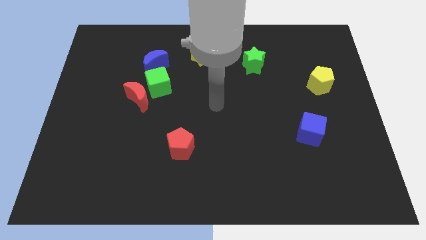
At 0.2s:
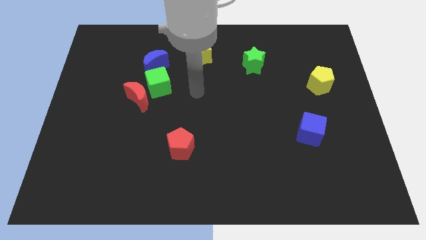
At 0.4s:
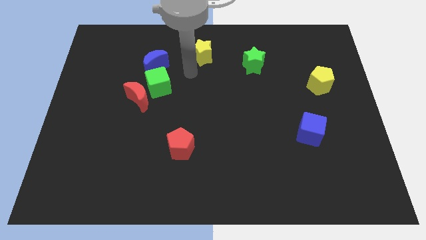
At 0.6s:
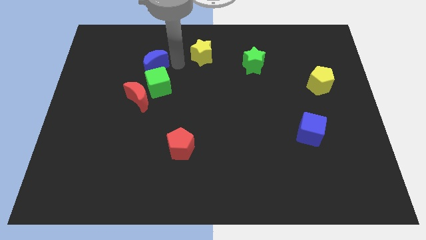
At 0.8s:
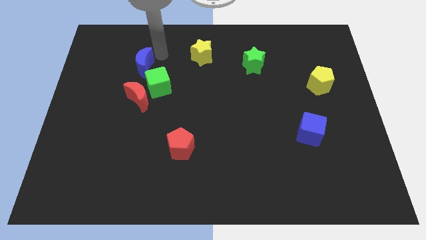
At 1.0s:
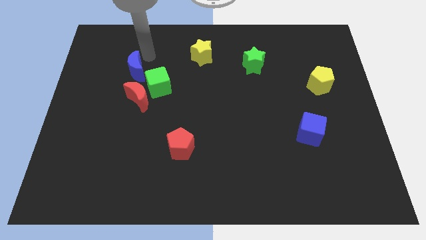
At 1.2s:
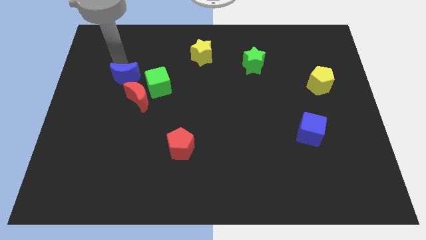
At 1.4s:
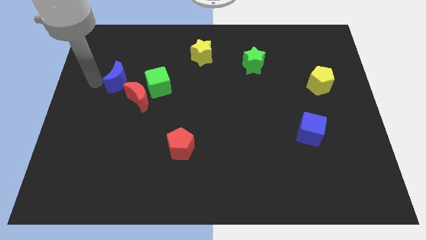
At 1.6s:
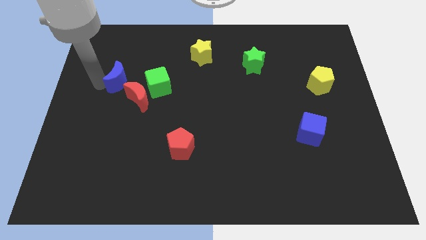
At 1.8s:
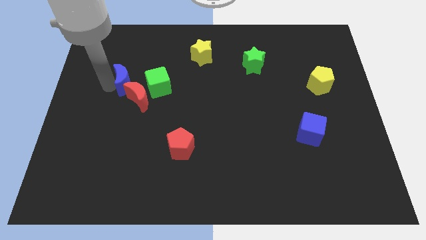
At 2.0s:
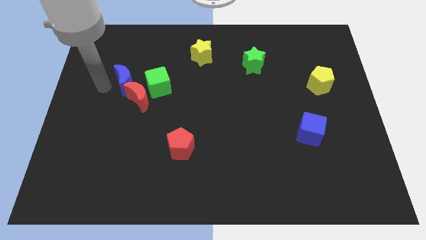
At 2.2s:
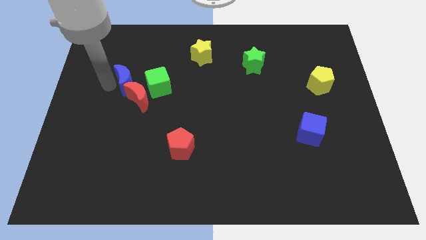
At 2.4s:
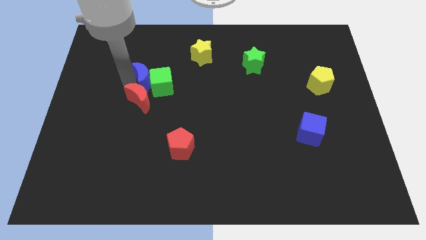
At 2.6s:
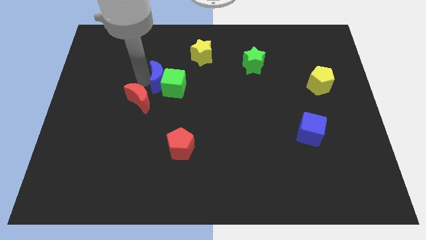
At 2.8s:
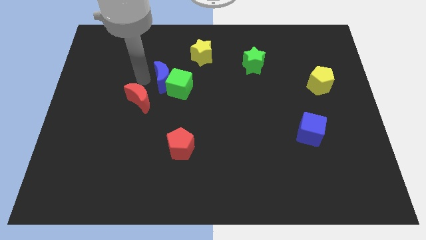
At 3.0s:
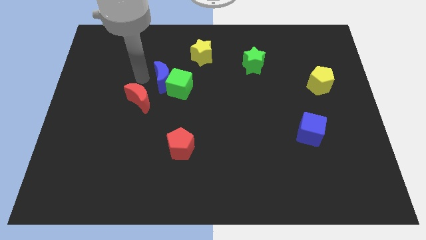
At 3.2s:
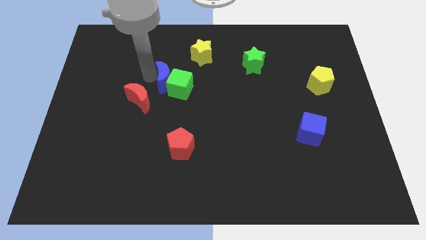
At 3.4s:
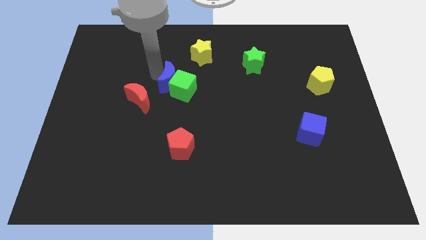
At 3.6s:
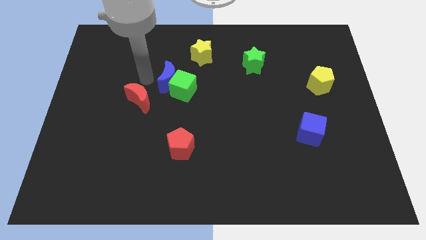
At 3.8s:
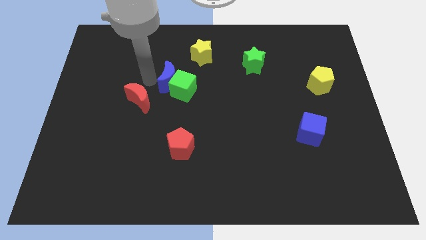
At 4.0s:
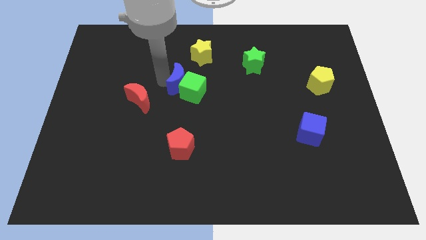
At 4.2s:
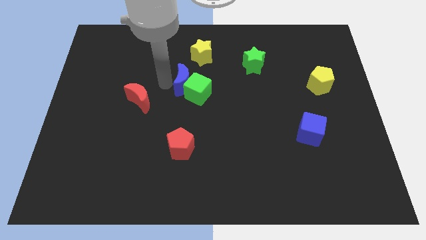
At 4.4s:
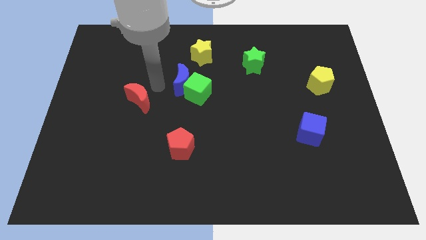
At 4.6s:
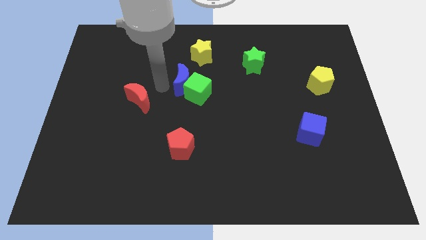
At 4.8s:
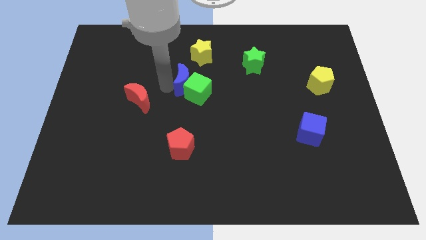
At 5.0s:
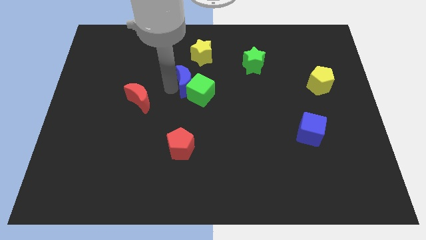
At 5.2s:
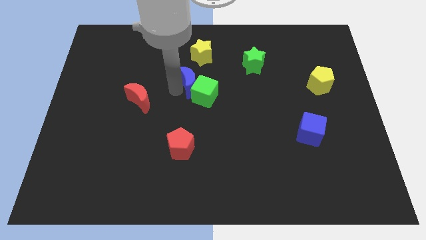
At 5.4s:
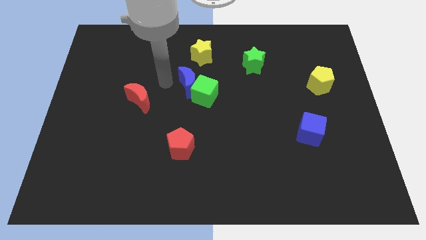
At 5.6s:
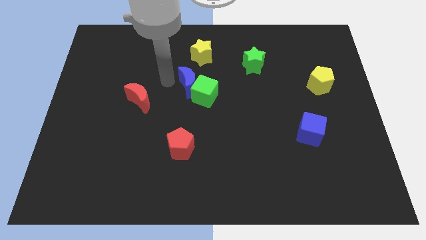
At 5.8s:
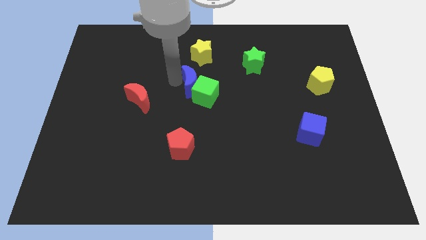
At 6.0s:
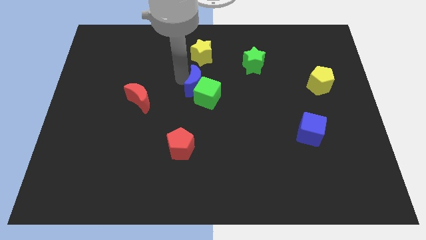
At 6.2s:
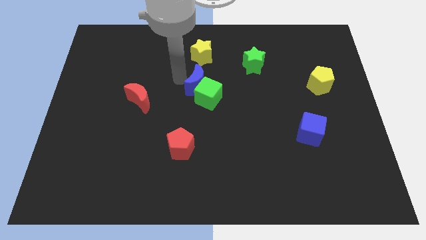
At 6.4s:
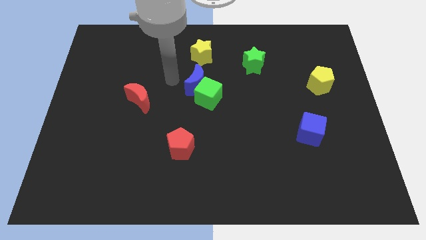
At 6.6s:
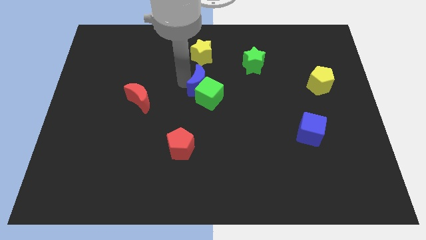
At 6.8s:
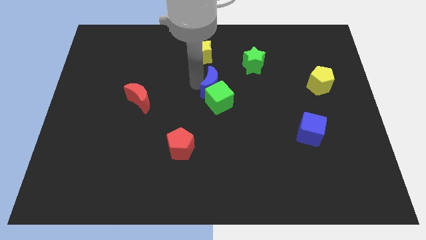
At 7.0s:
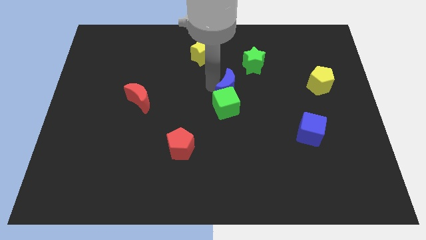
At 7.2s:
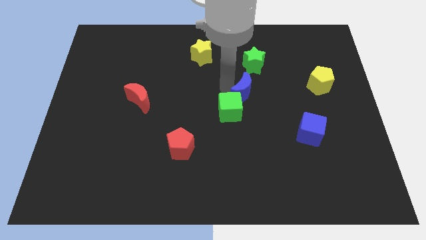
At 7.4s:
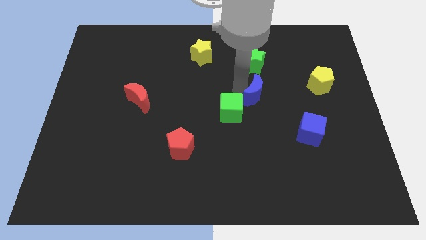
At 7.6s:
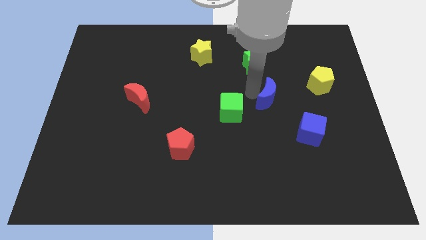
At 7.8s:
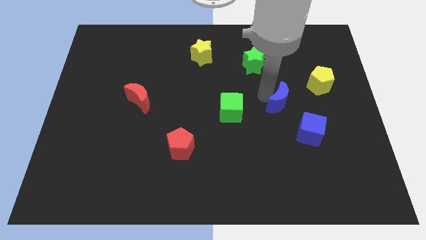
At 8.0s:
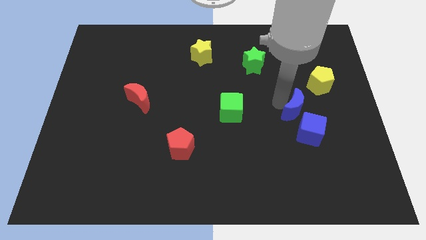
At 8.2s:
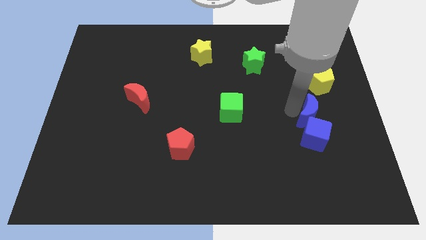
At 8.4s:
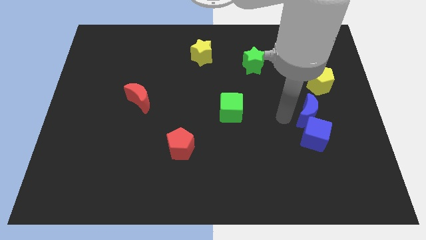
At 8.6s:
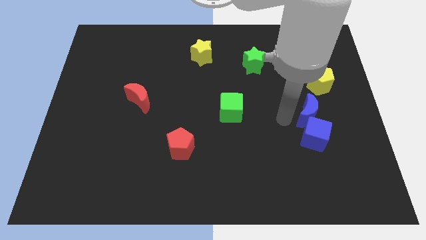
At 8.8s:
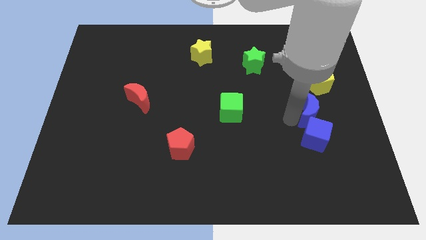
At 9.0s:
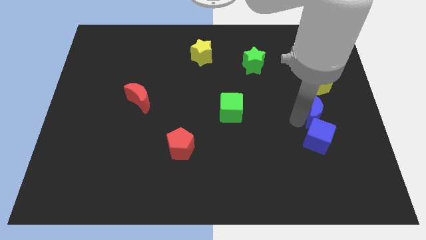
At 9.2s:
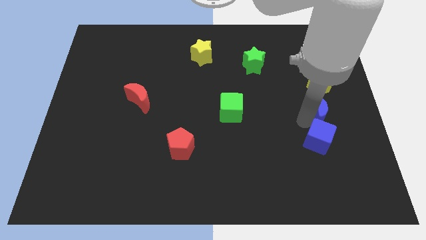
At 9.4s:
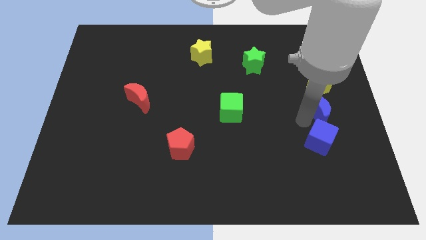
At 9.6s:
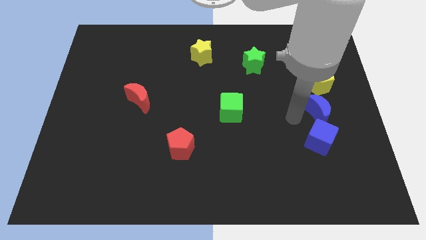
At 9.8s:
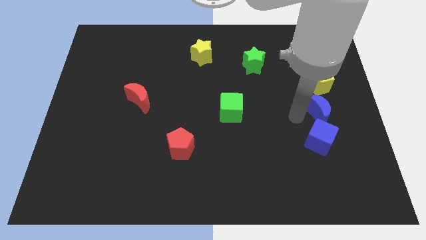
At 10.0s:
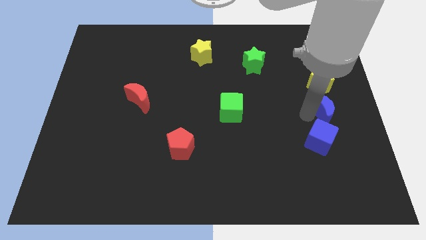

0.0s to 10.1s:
put the blue moon to the center right

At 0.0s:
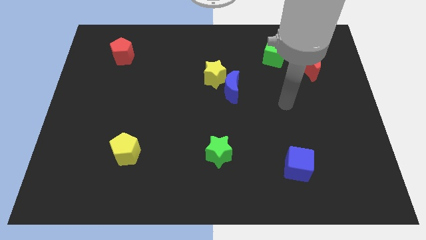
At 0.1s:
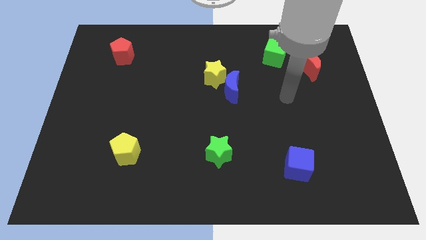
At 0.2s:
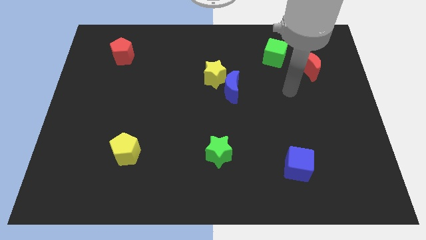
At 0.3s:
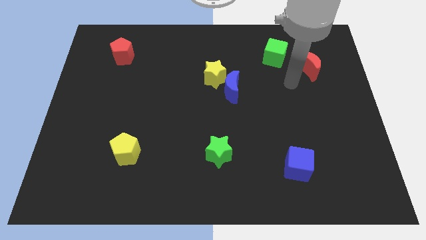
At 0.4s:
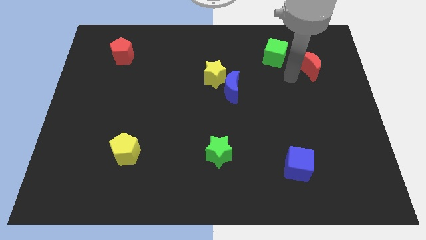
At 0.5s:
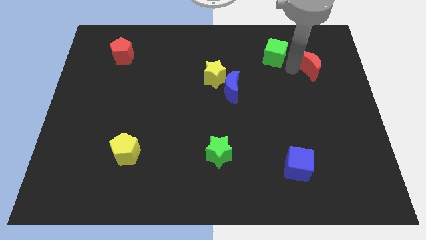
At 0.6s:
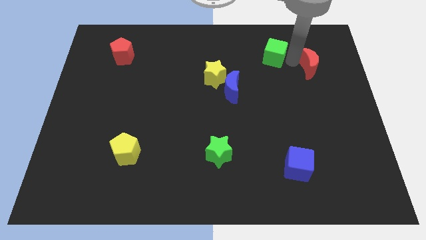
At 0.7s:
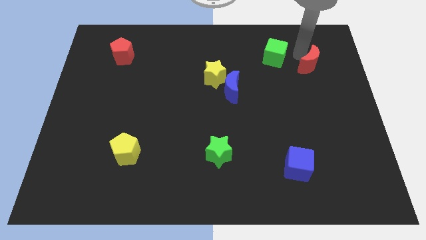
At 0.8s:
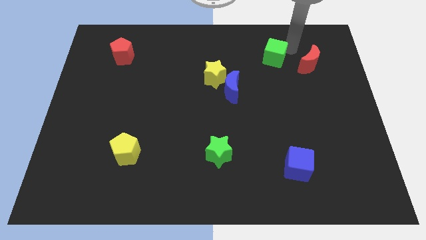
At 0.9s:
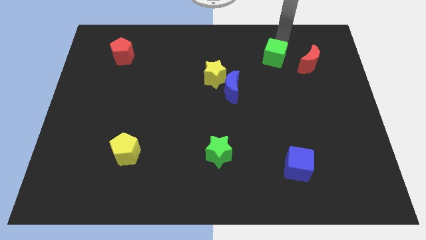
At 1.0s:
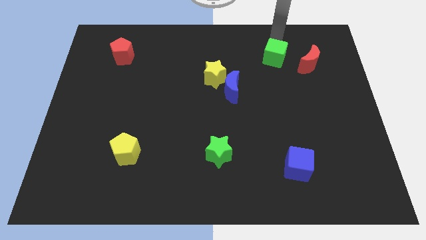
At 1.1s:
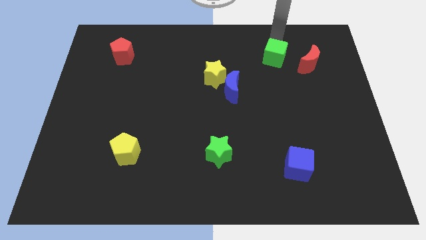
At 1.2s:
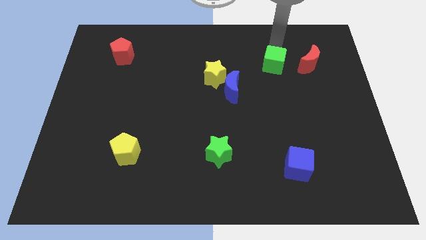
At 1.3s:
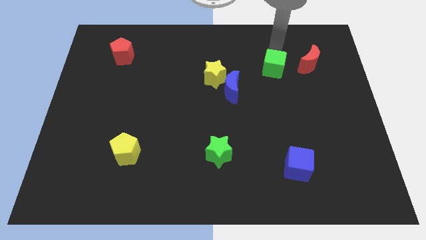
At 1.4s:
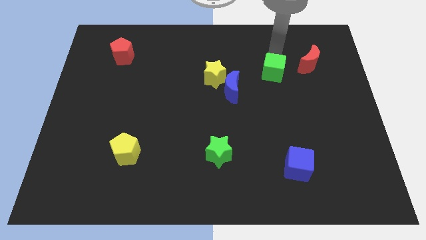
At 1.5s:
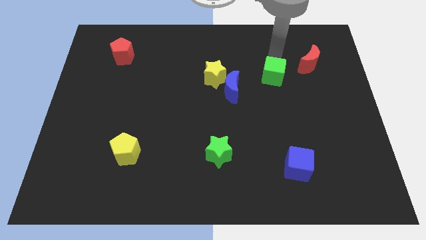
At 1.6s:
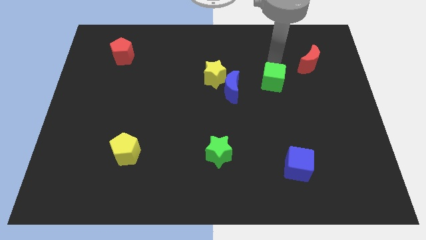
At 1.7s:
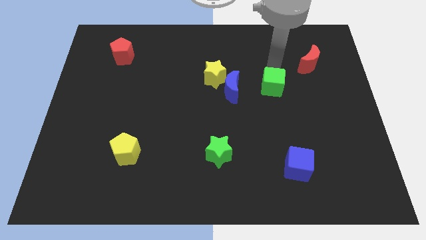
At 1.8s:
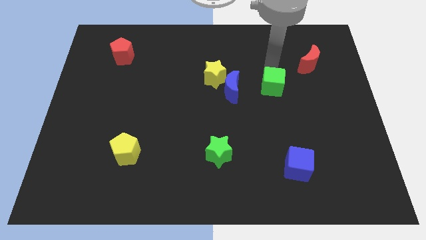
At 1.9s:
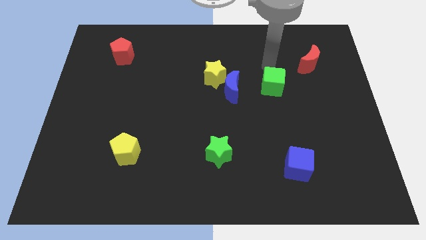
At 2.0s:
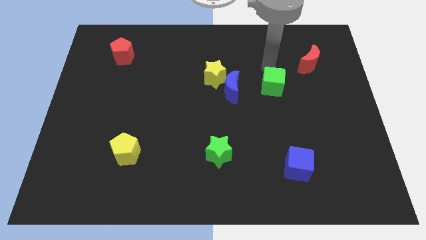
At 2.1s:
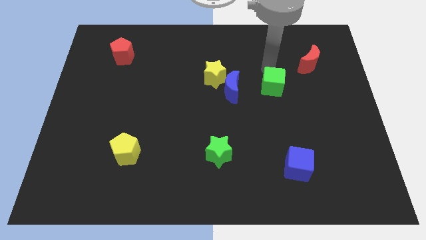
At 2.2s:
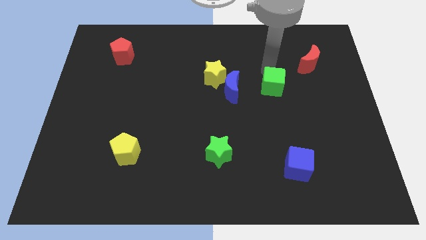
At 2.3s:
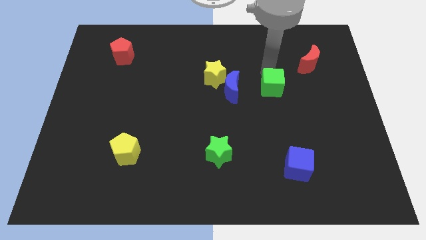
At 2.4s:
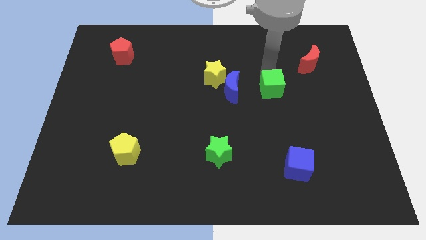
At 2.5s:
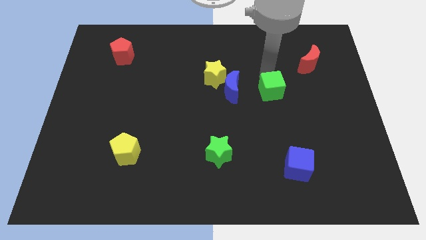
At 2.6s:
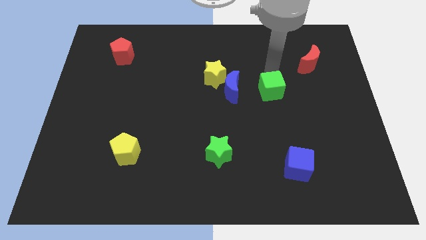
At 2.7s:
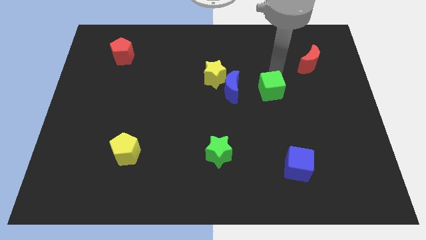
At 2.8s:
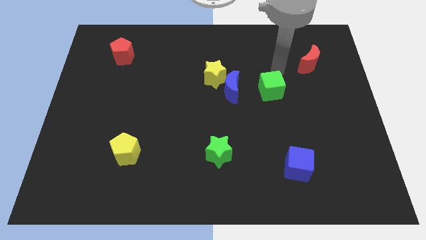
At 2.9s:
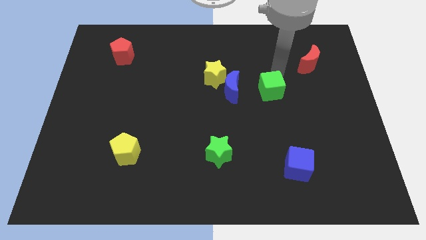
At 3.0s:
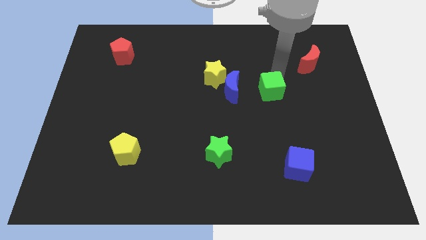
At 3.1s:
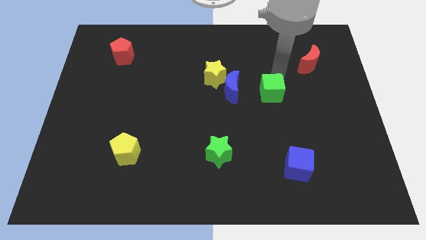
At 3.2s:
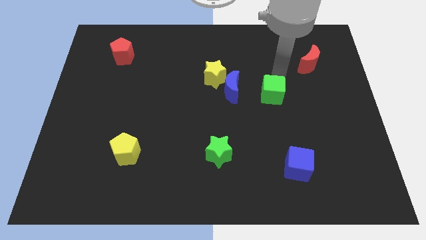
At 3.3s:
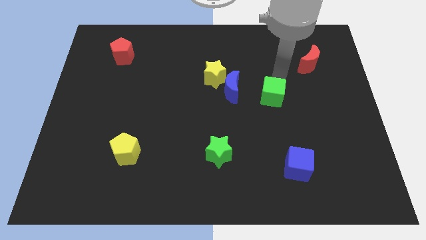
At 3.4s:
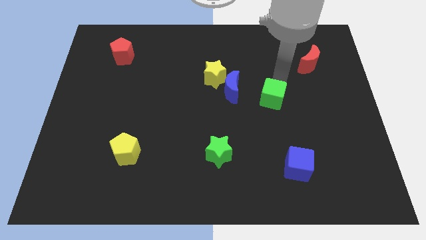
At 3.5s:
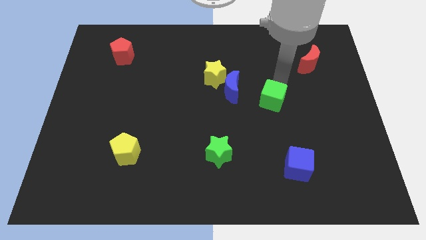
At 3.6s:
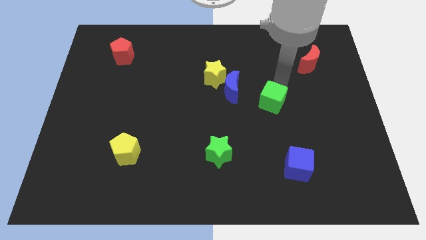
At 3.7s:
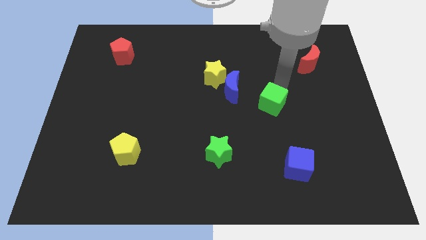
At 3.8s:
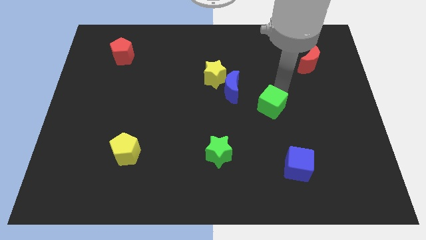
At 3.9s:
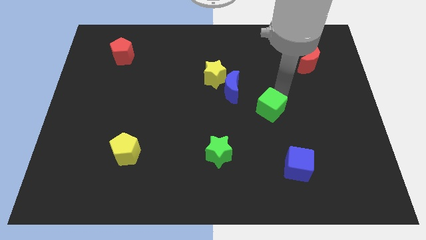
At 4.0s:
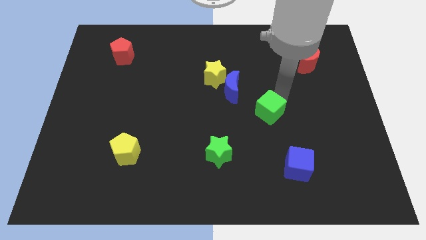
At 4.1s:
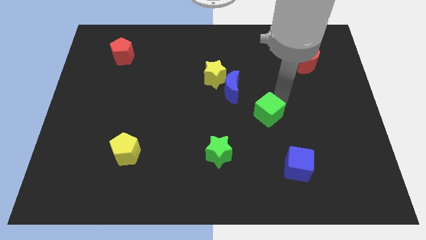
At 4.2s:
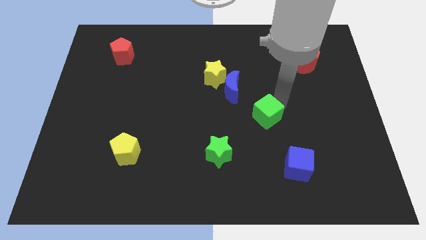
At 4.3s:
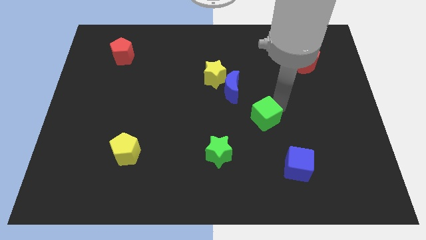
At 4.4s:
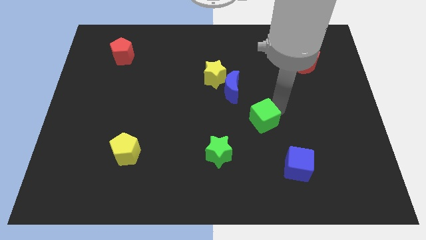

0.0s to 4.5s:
put the green cube to the center
